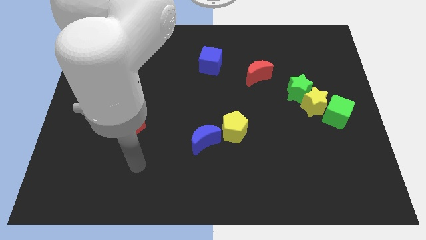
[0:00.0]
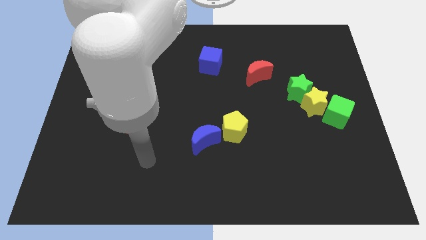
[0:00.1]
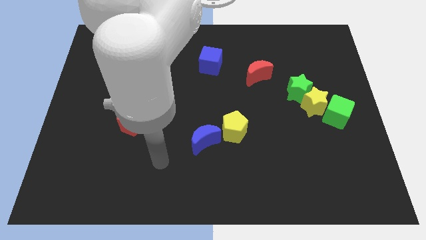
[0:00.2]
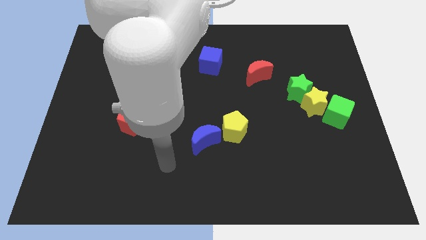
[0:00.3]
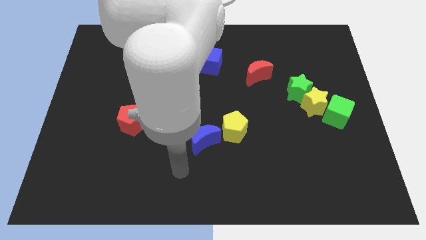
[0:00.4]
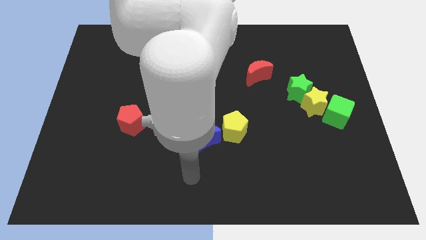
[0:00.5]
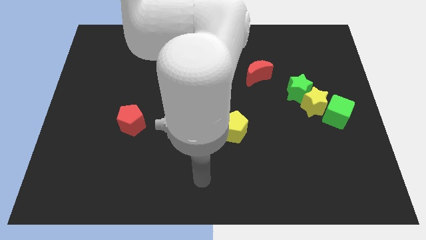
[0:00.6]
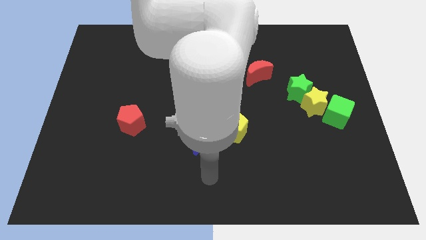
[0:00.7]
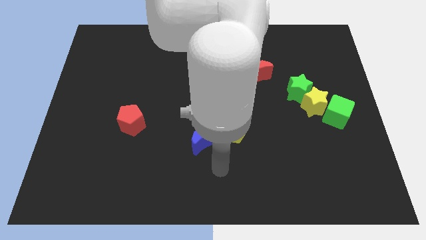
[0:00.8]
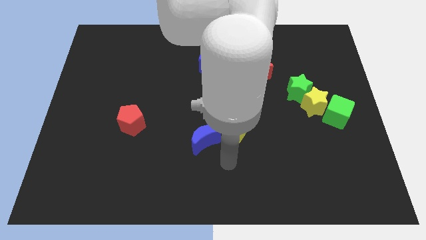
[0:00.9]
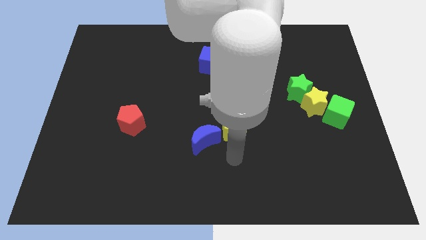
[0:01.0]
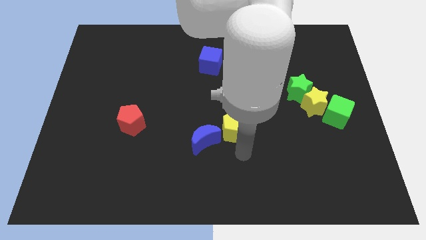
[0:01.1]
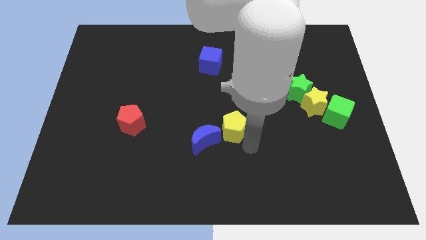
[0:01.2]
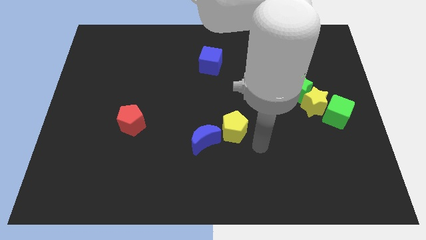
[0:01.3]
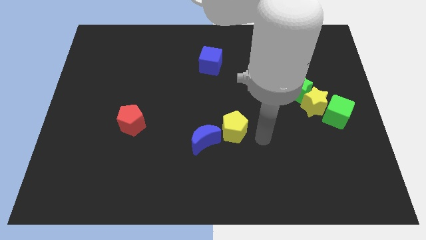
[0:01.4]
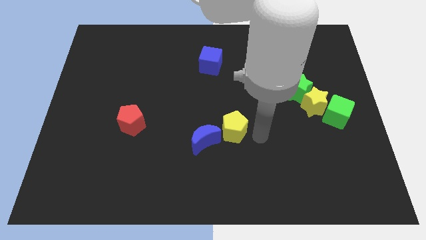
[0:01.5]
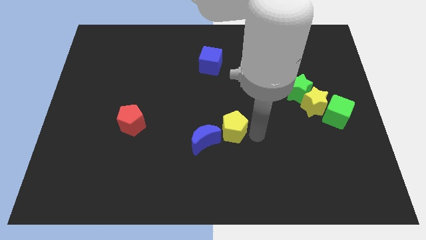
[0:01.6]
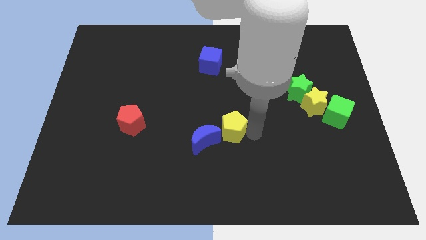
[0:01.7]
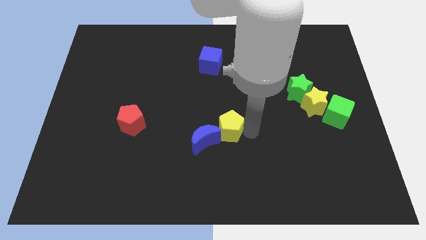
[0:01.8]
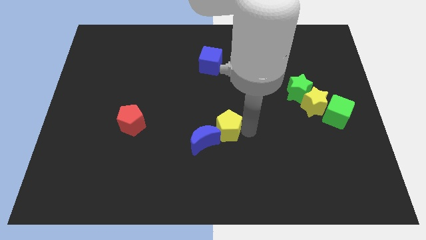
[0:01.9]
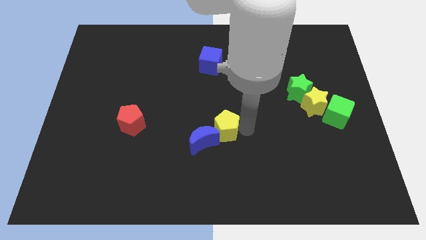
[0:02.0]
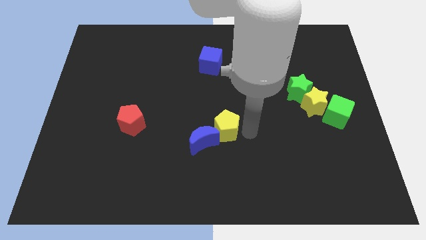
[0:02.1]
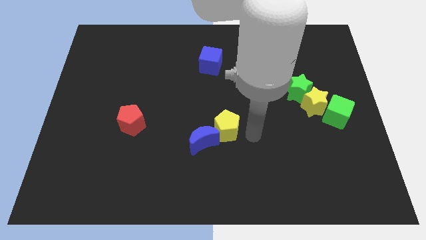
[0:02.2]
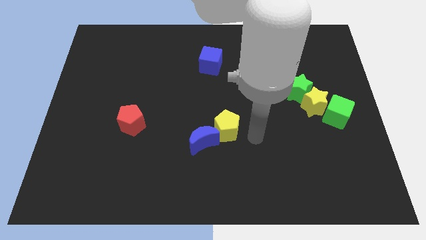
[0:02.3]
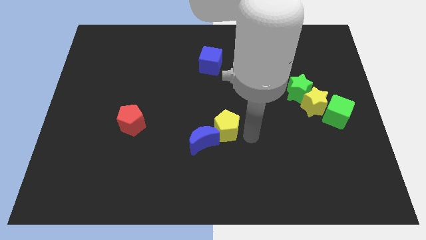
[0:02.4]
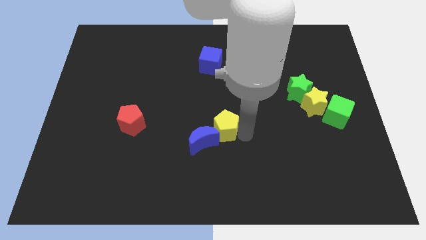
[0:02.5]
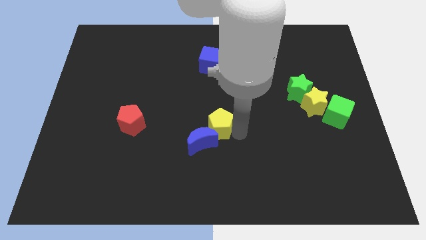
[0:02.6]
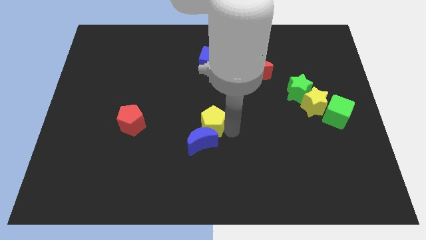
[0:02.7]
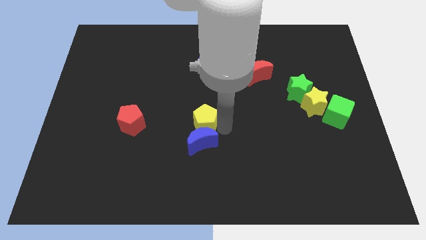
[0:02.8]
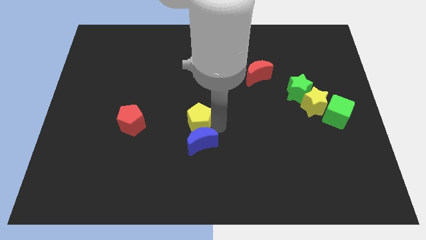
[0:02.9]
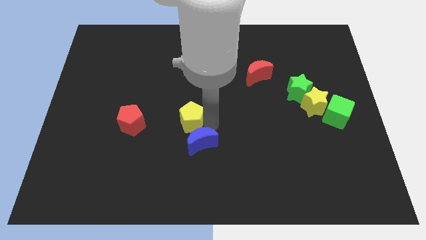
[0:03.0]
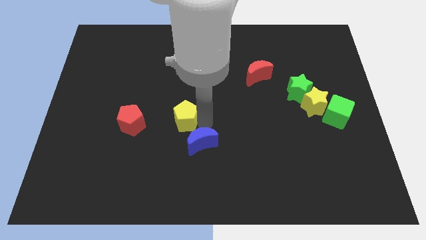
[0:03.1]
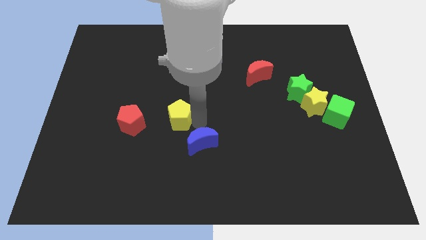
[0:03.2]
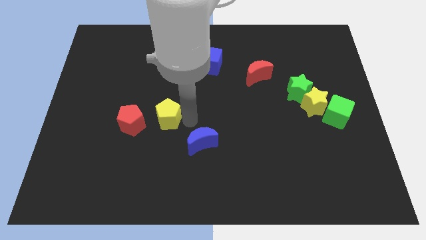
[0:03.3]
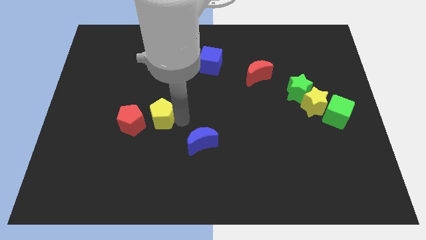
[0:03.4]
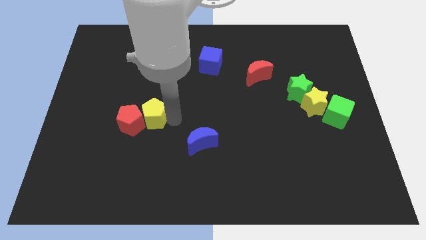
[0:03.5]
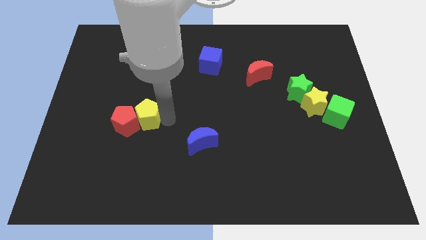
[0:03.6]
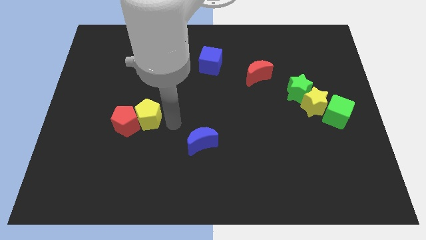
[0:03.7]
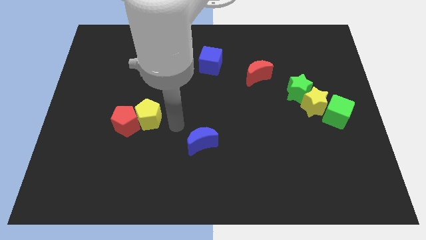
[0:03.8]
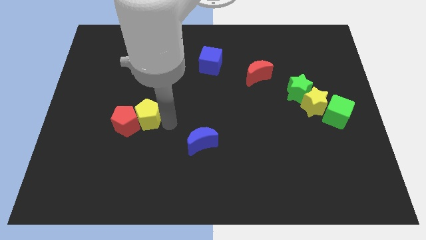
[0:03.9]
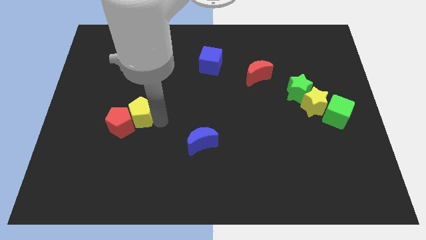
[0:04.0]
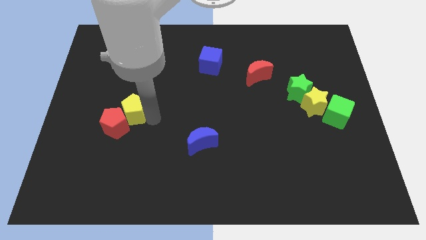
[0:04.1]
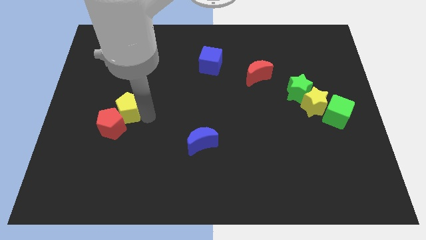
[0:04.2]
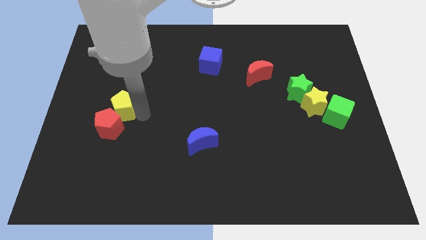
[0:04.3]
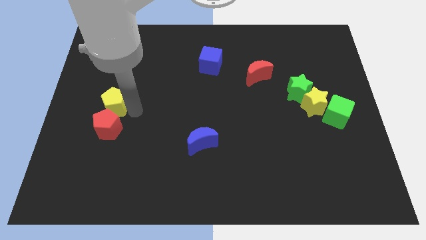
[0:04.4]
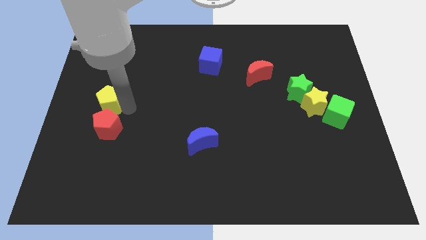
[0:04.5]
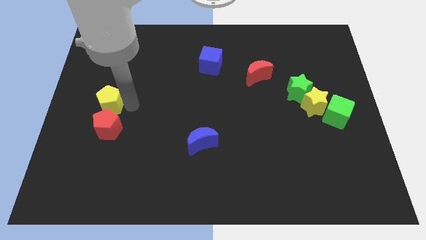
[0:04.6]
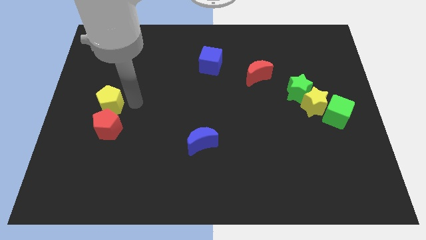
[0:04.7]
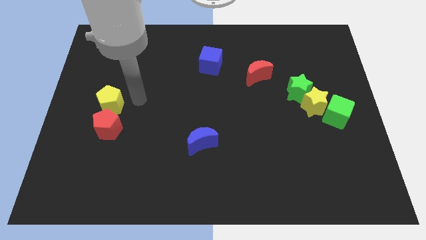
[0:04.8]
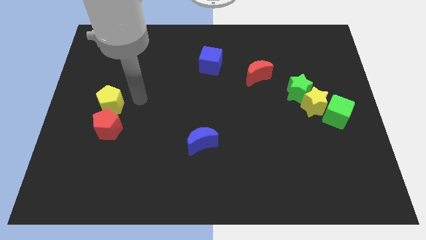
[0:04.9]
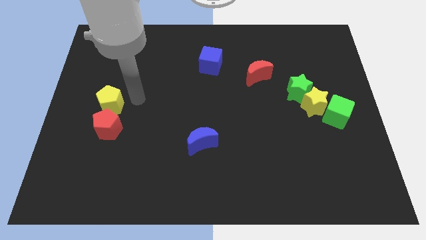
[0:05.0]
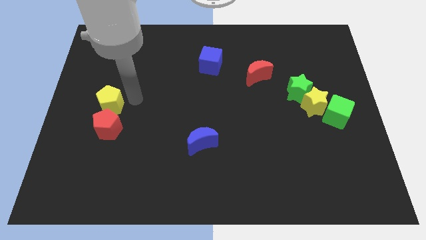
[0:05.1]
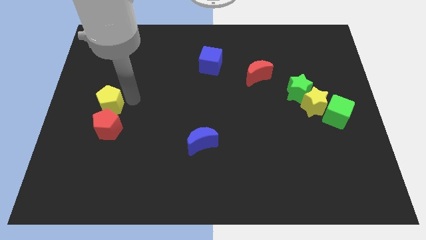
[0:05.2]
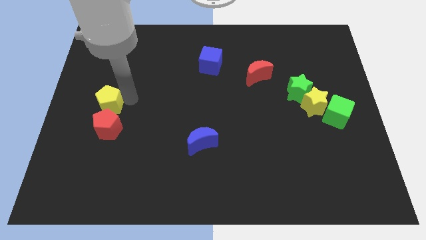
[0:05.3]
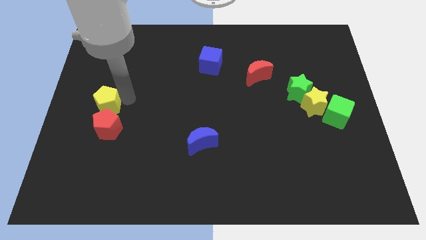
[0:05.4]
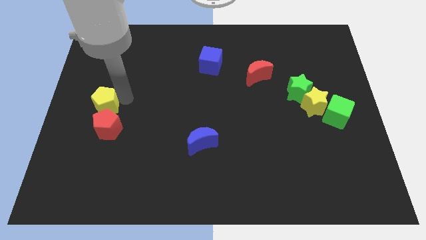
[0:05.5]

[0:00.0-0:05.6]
put the yellow pentagon to the left side of the board
